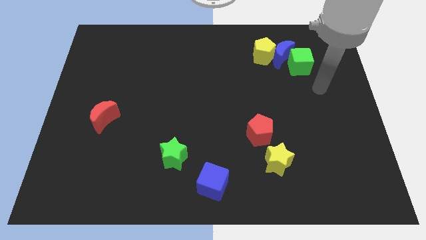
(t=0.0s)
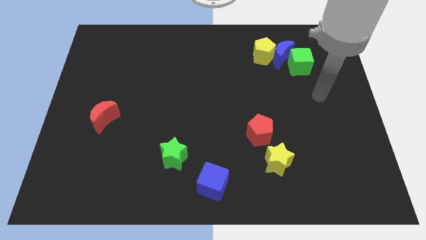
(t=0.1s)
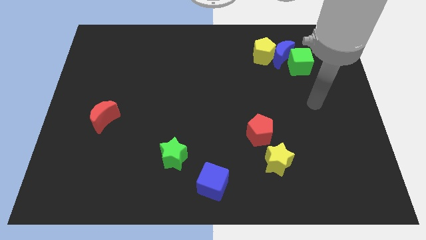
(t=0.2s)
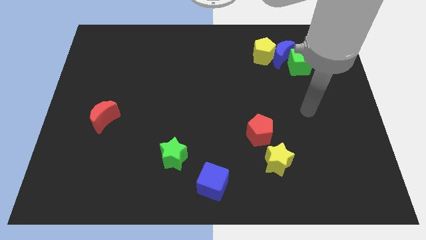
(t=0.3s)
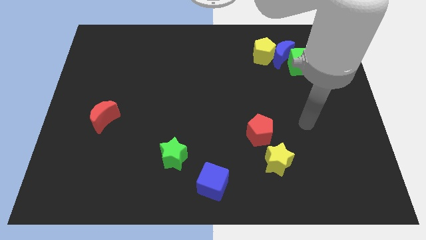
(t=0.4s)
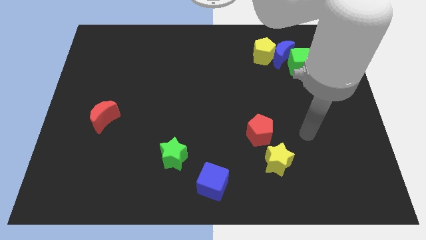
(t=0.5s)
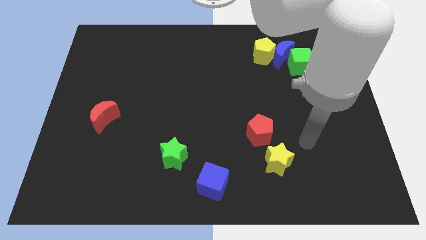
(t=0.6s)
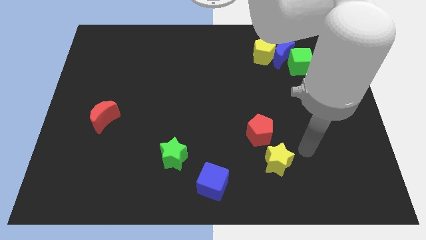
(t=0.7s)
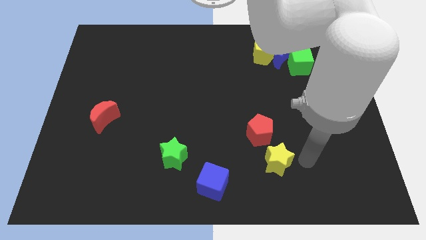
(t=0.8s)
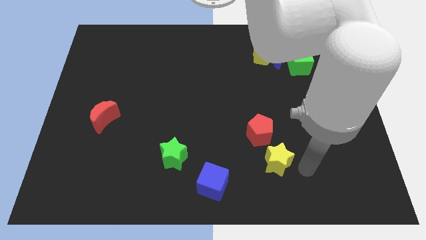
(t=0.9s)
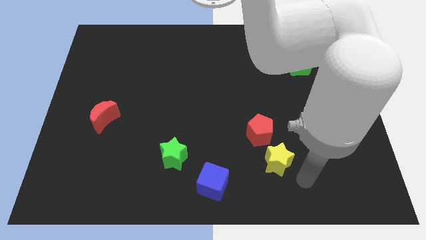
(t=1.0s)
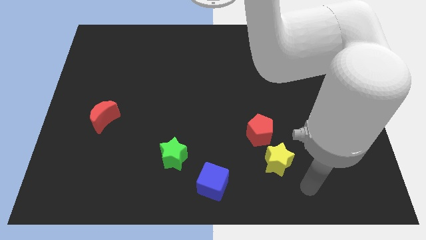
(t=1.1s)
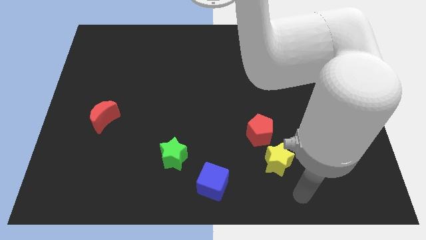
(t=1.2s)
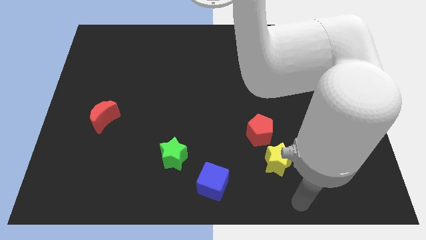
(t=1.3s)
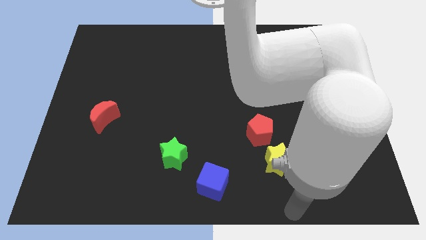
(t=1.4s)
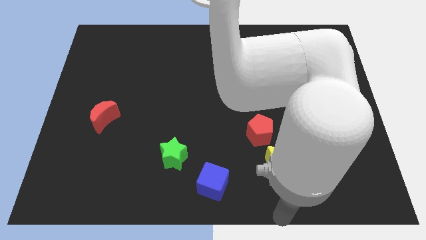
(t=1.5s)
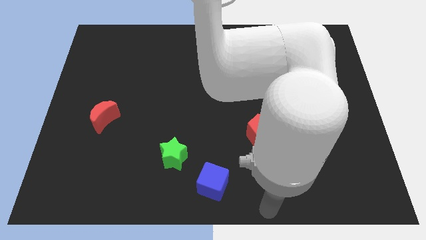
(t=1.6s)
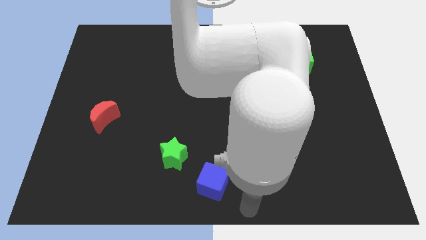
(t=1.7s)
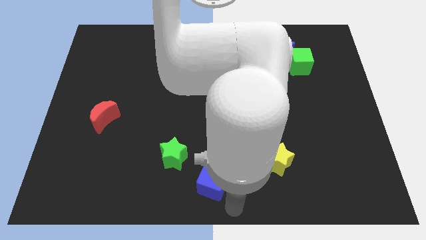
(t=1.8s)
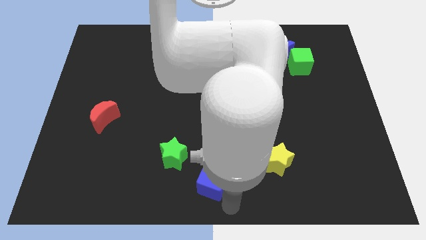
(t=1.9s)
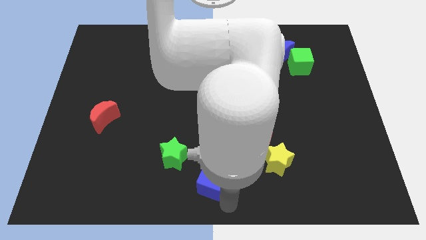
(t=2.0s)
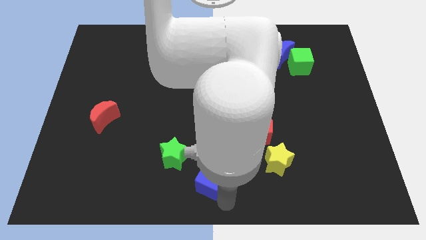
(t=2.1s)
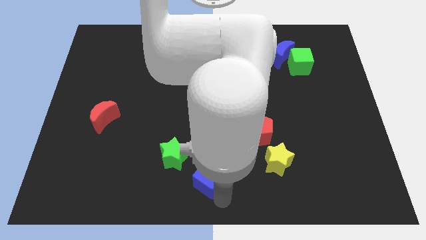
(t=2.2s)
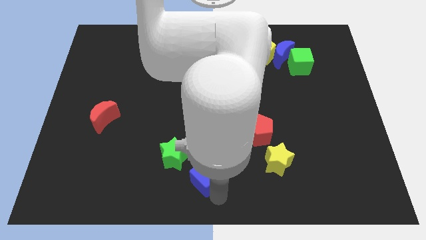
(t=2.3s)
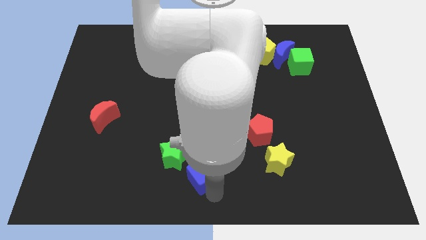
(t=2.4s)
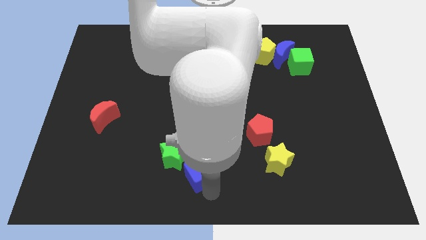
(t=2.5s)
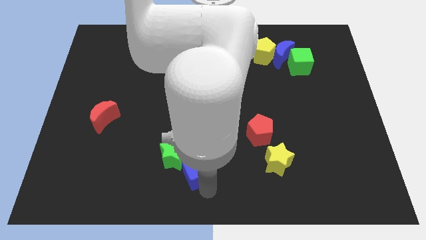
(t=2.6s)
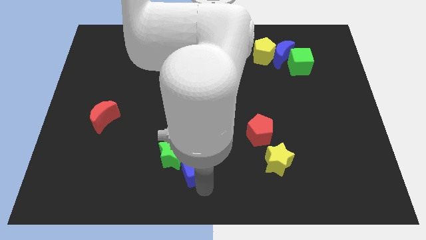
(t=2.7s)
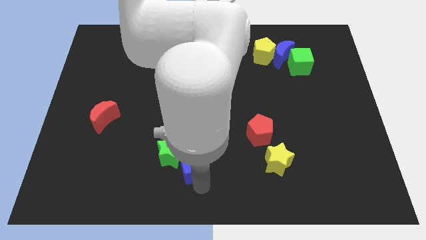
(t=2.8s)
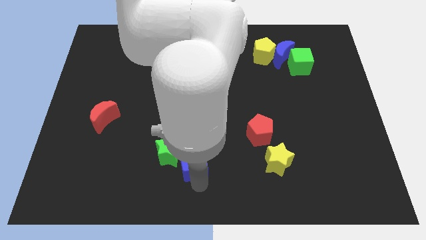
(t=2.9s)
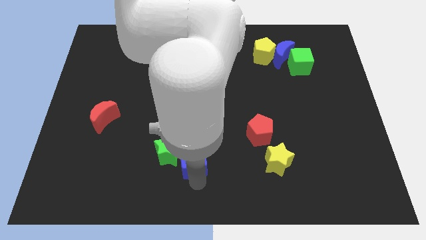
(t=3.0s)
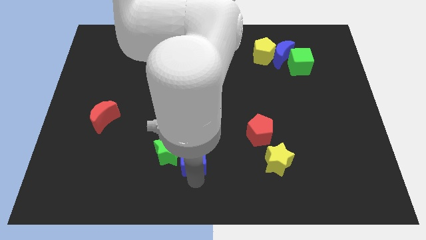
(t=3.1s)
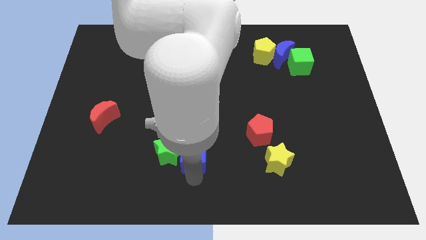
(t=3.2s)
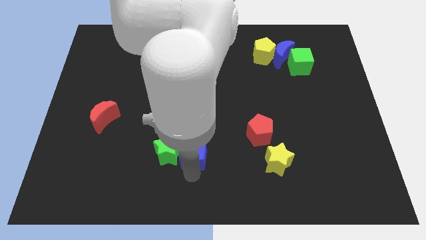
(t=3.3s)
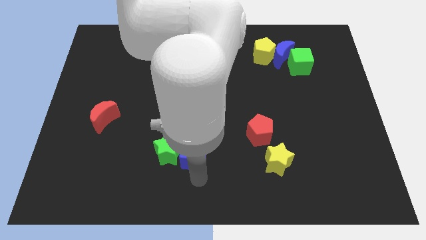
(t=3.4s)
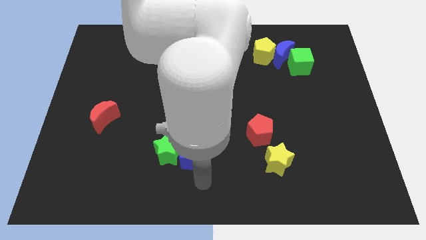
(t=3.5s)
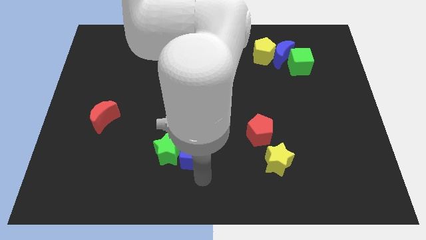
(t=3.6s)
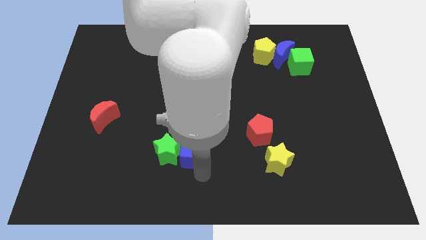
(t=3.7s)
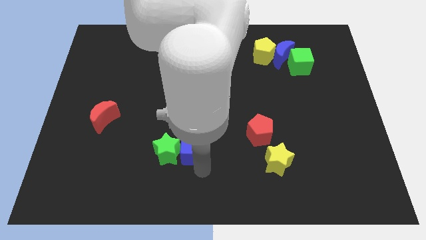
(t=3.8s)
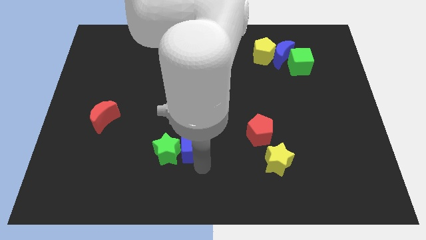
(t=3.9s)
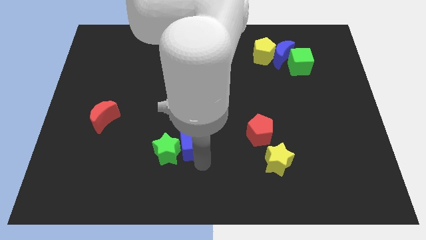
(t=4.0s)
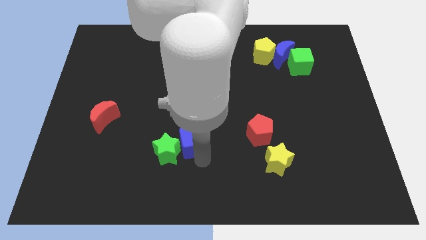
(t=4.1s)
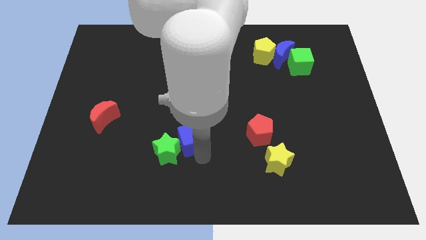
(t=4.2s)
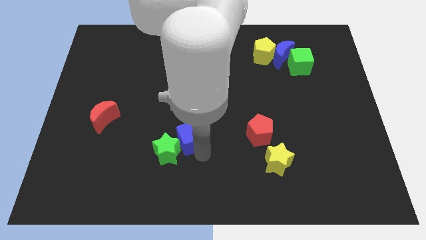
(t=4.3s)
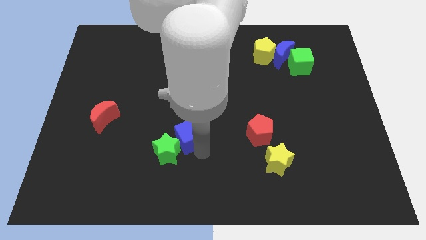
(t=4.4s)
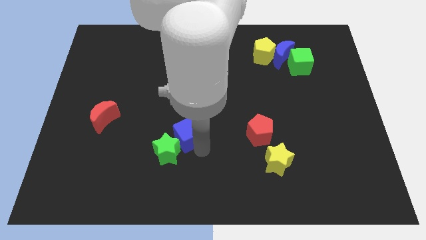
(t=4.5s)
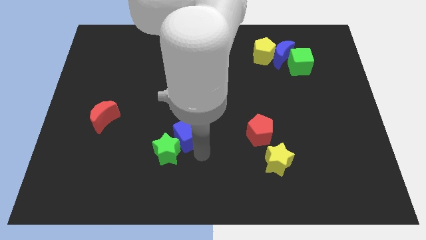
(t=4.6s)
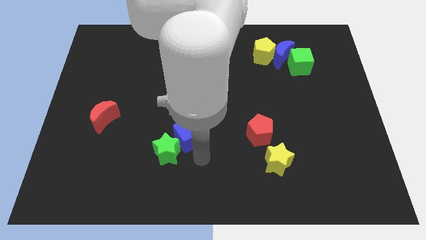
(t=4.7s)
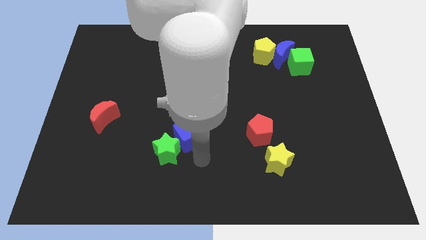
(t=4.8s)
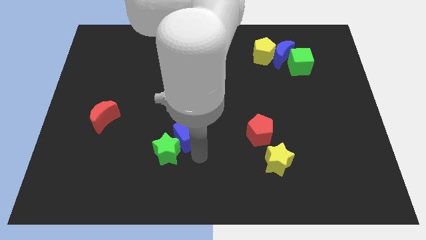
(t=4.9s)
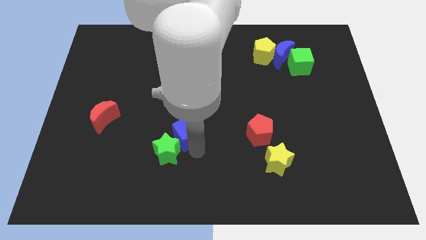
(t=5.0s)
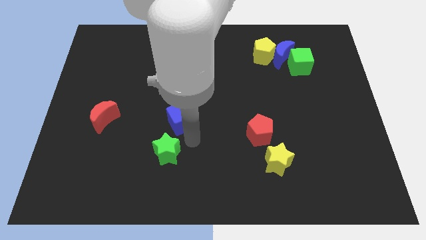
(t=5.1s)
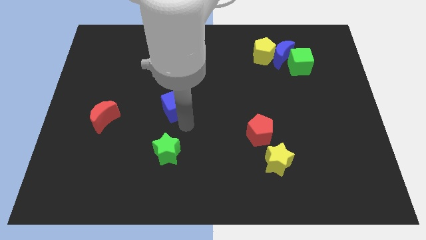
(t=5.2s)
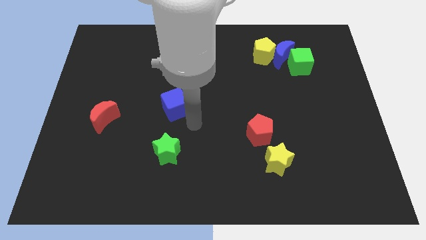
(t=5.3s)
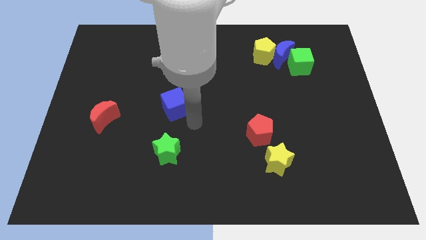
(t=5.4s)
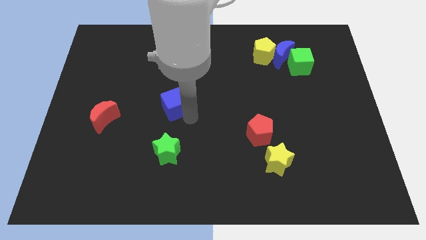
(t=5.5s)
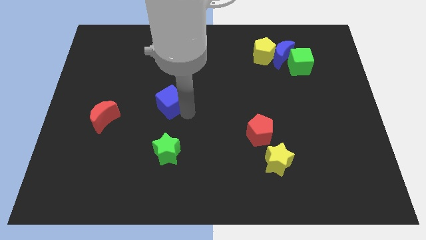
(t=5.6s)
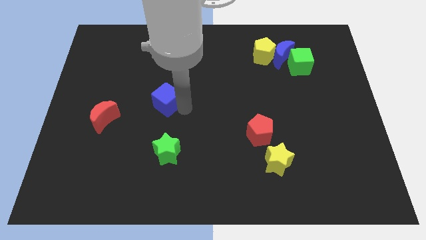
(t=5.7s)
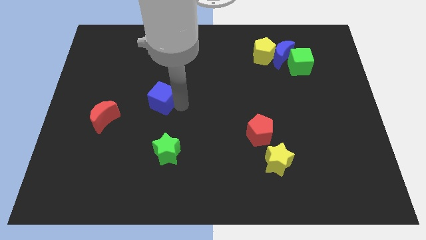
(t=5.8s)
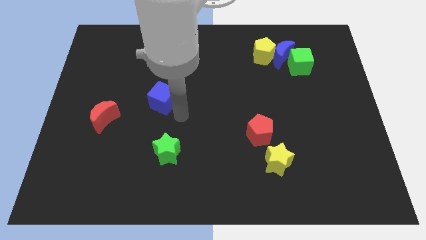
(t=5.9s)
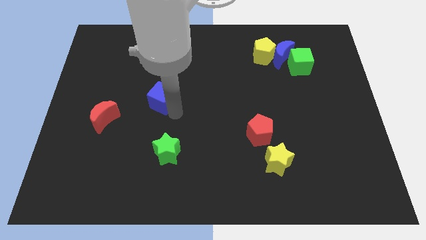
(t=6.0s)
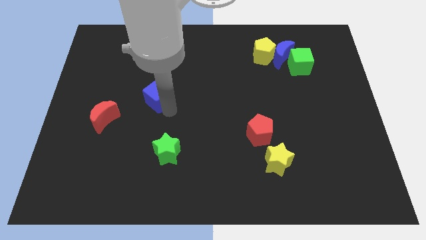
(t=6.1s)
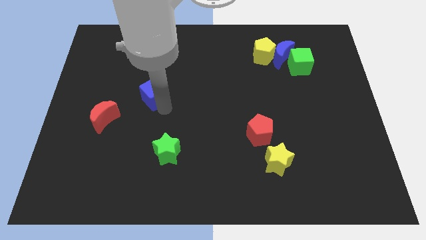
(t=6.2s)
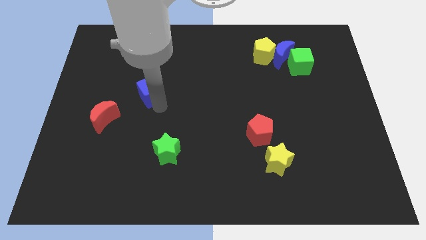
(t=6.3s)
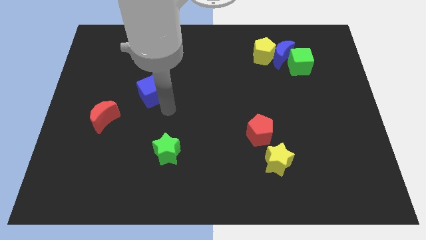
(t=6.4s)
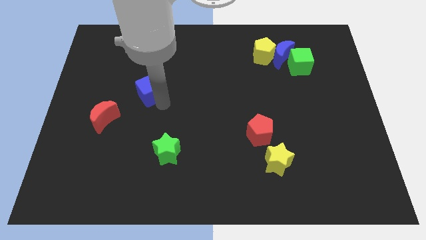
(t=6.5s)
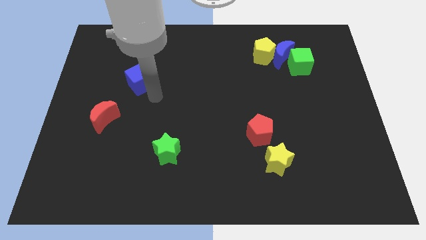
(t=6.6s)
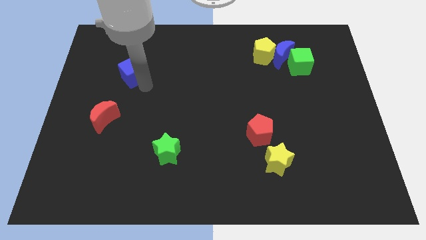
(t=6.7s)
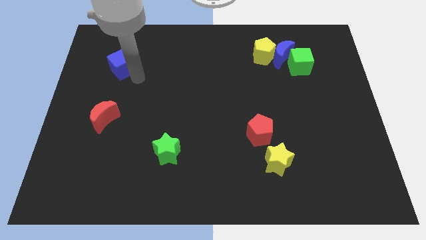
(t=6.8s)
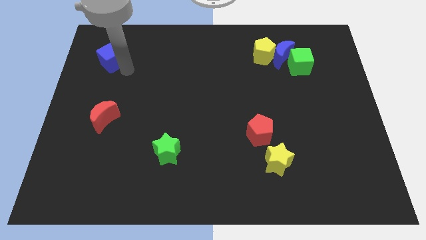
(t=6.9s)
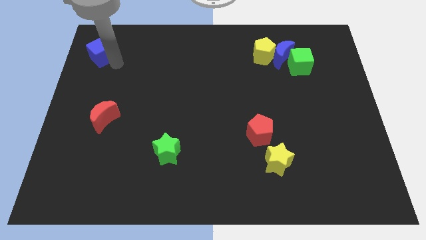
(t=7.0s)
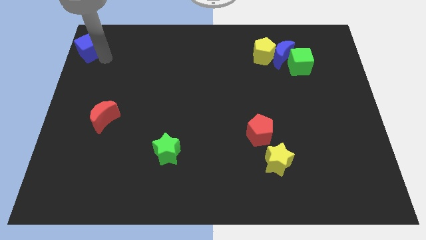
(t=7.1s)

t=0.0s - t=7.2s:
slide the blue cube to the upper left corner

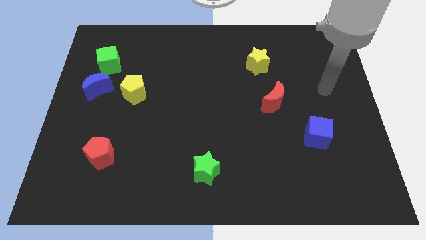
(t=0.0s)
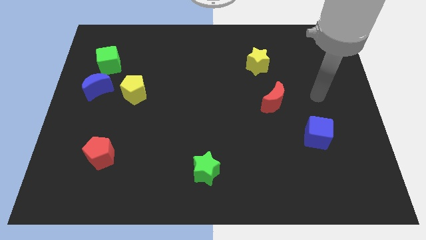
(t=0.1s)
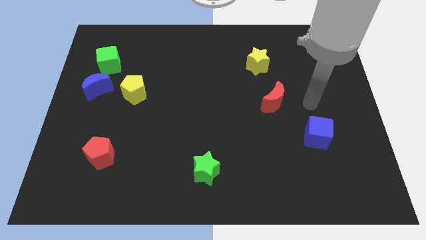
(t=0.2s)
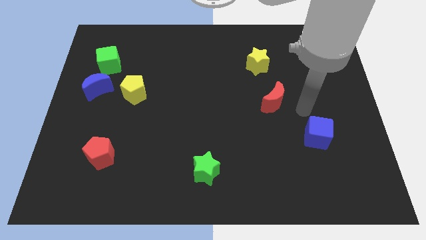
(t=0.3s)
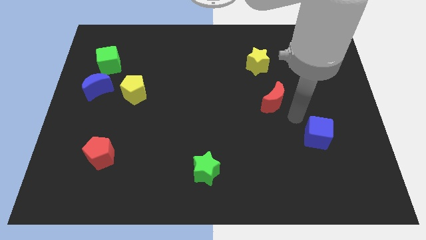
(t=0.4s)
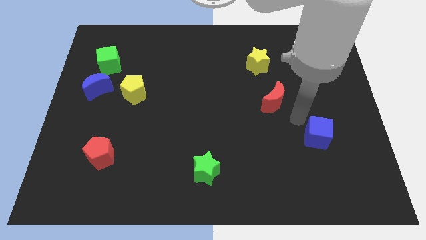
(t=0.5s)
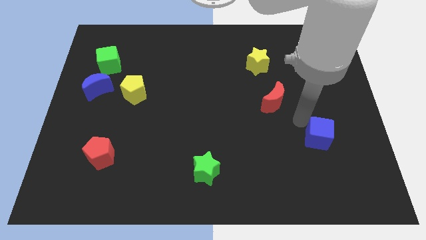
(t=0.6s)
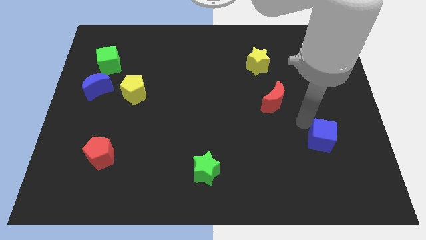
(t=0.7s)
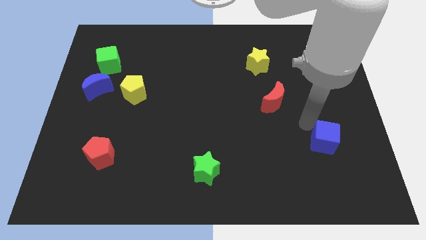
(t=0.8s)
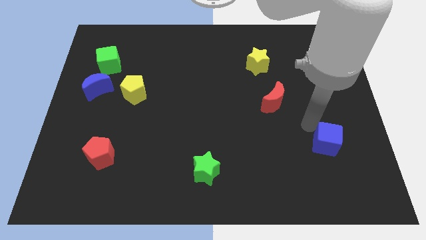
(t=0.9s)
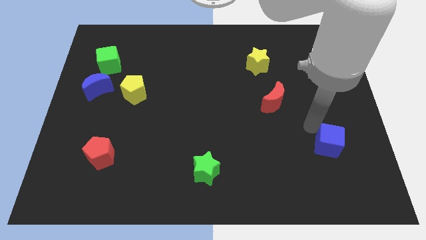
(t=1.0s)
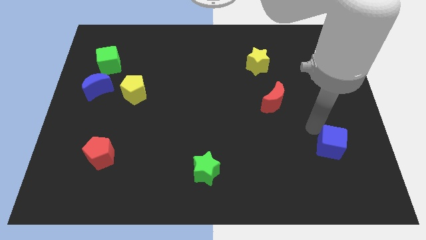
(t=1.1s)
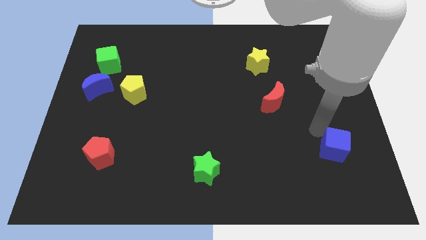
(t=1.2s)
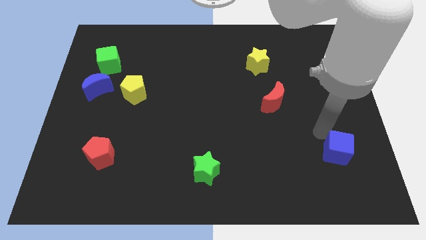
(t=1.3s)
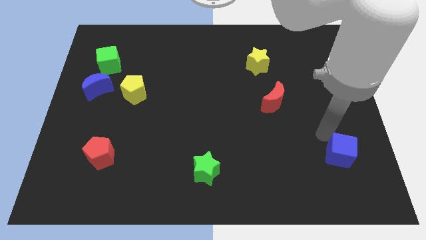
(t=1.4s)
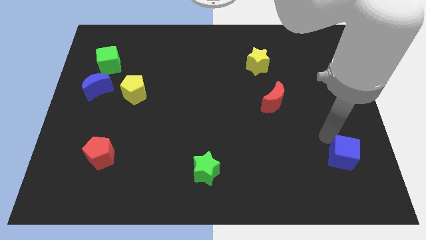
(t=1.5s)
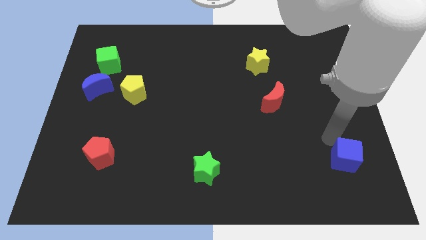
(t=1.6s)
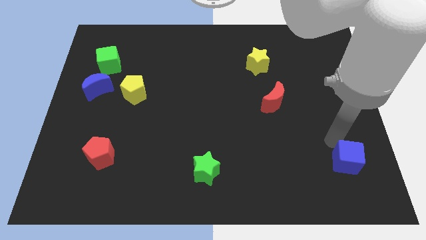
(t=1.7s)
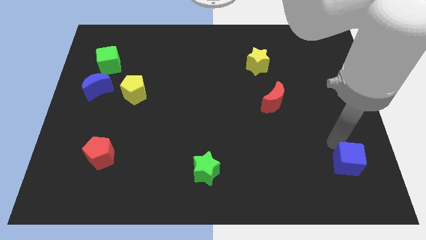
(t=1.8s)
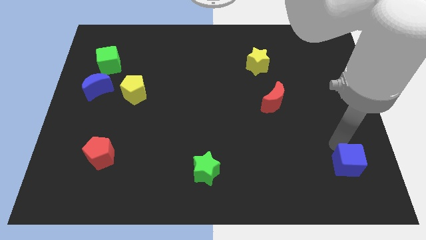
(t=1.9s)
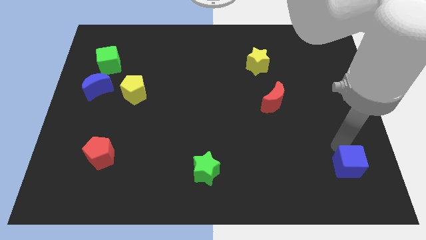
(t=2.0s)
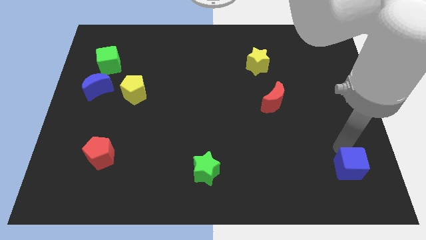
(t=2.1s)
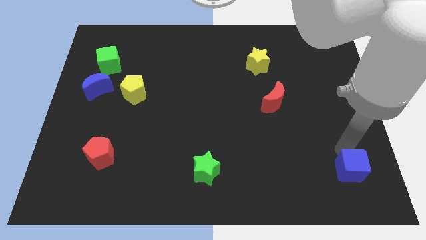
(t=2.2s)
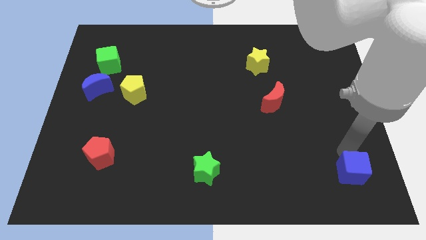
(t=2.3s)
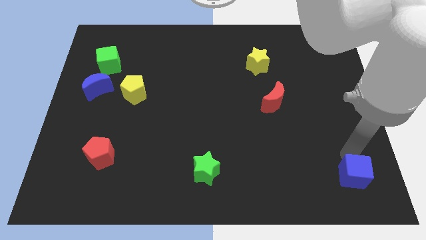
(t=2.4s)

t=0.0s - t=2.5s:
slide the blue cube to the bottom right of the board
